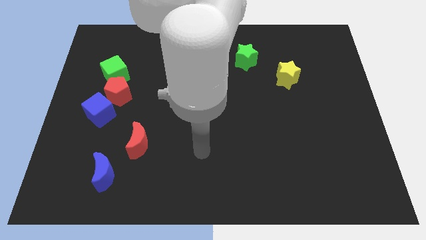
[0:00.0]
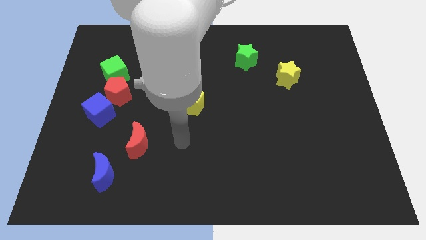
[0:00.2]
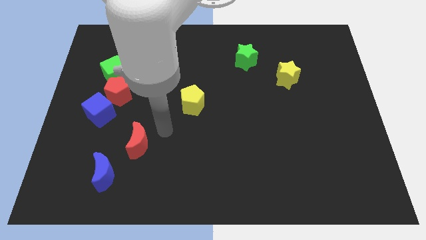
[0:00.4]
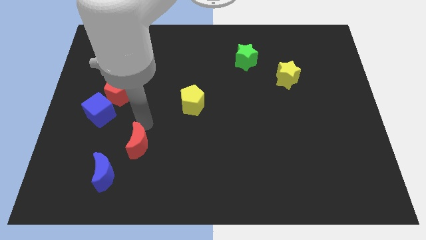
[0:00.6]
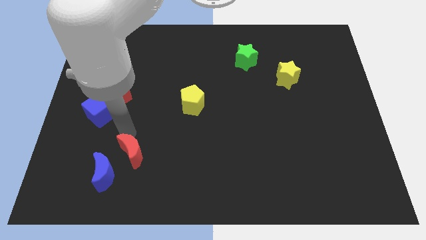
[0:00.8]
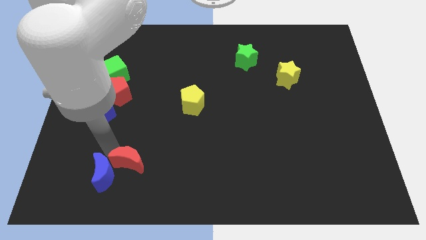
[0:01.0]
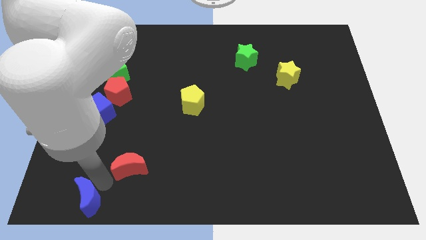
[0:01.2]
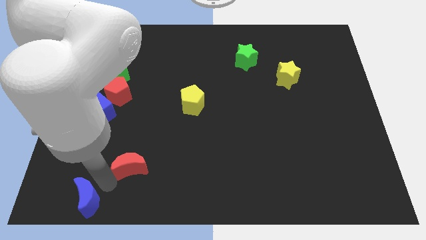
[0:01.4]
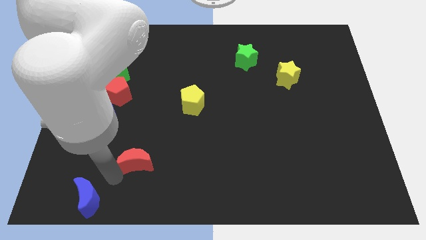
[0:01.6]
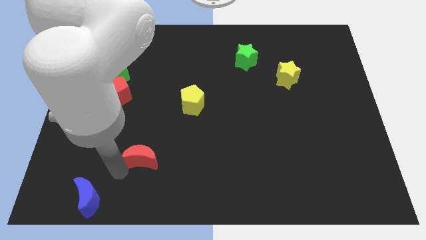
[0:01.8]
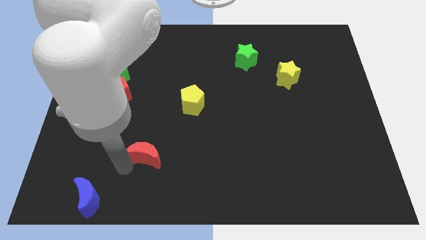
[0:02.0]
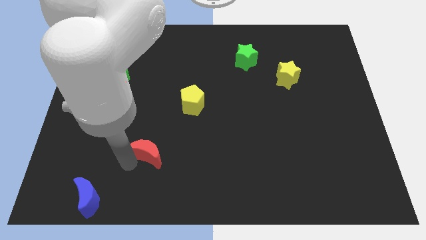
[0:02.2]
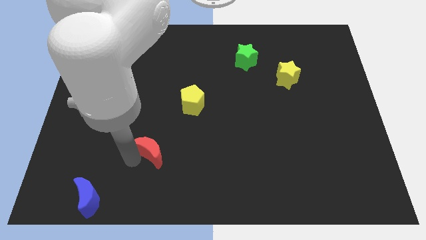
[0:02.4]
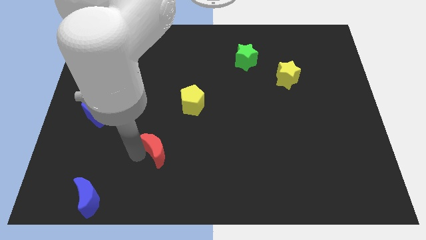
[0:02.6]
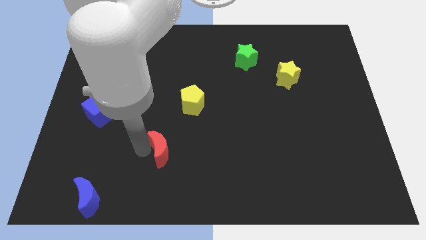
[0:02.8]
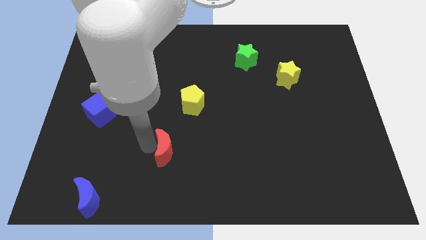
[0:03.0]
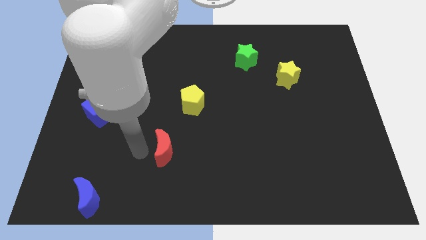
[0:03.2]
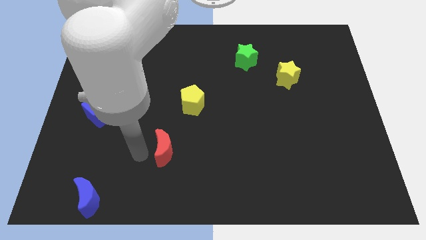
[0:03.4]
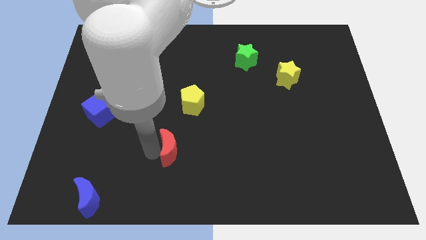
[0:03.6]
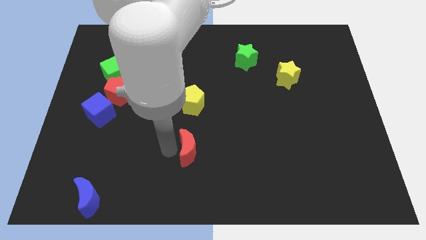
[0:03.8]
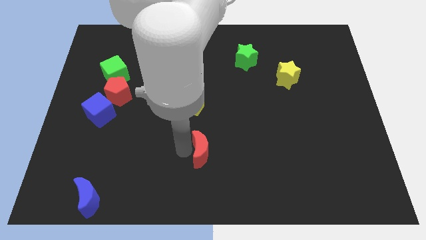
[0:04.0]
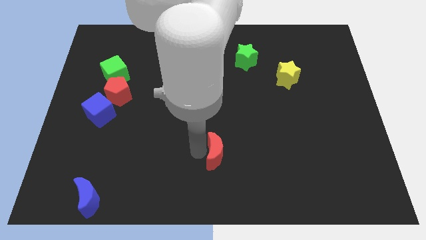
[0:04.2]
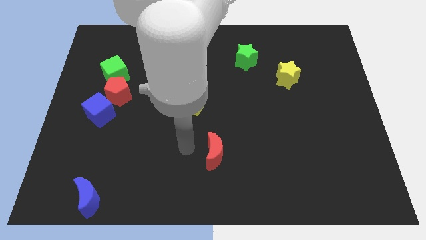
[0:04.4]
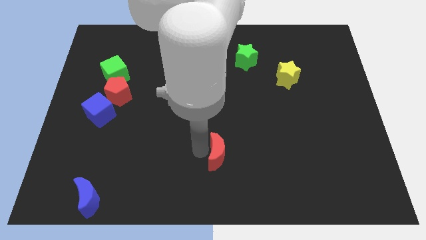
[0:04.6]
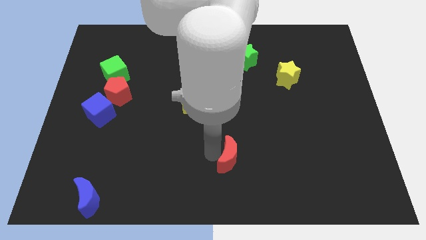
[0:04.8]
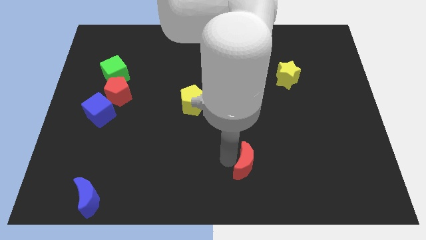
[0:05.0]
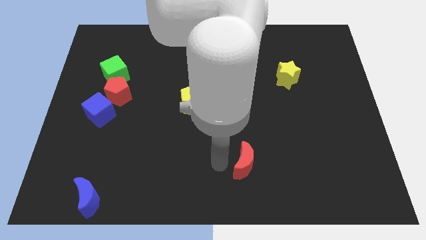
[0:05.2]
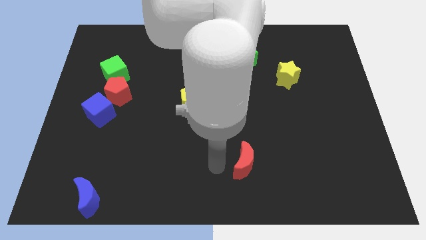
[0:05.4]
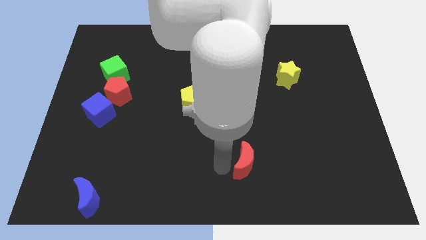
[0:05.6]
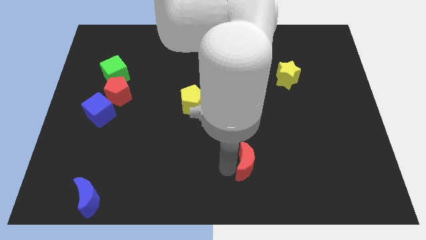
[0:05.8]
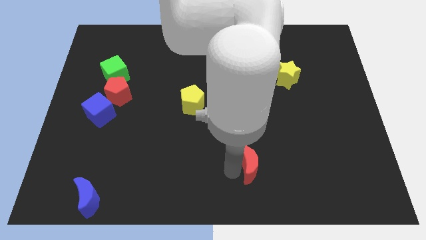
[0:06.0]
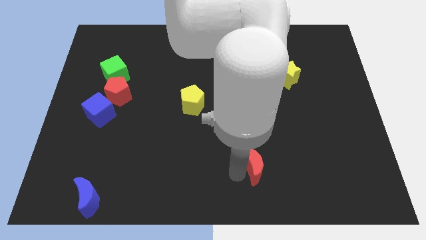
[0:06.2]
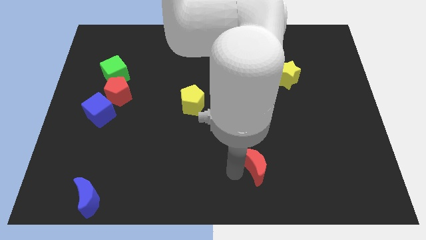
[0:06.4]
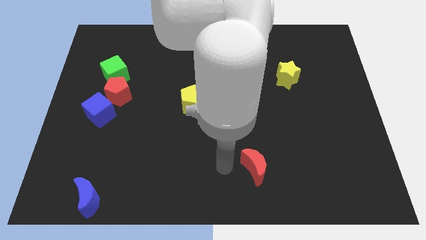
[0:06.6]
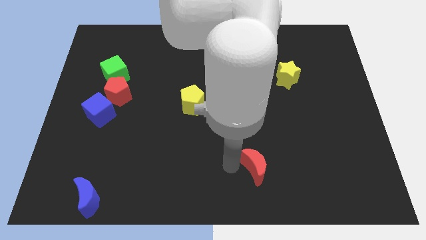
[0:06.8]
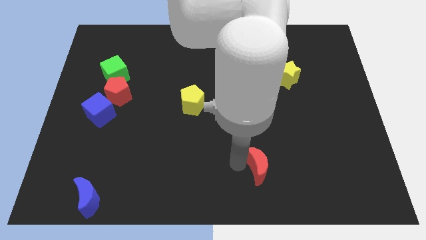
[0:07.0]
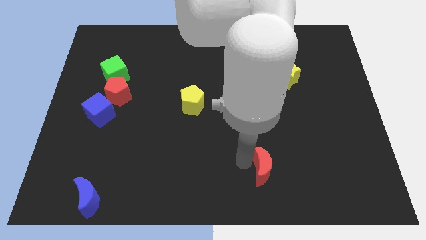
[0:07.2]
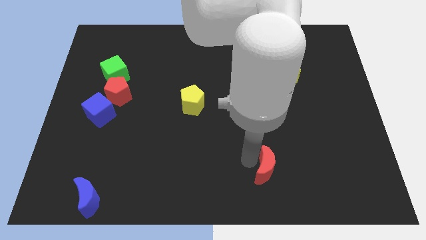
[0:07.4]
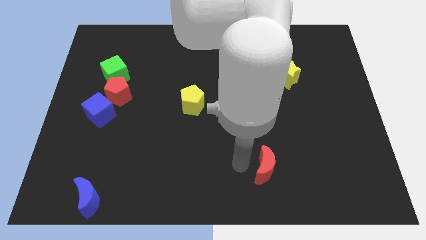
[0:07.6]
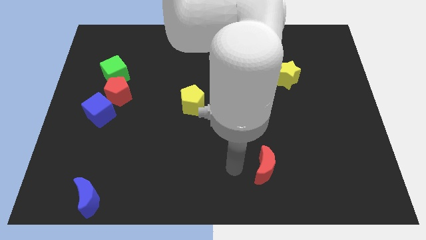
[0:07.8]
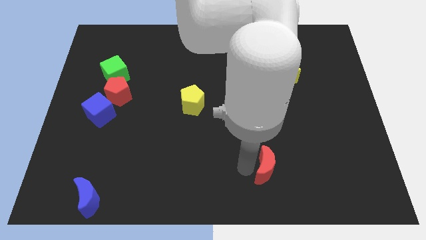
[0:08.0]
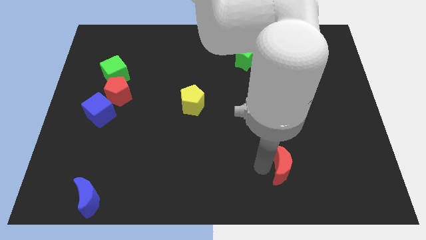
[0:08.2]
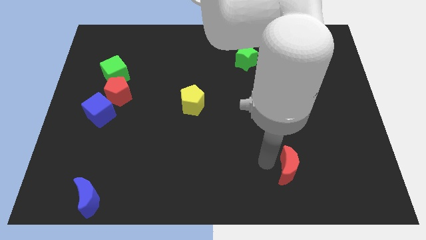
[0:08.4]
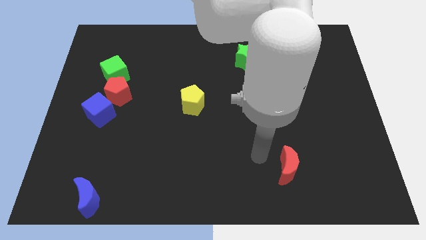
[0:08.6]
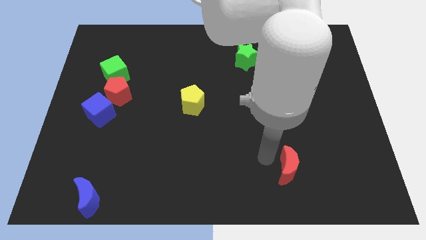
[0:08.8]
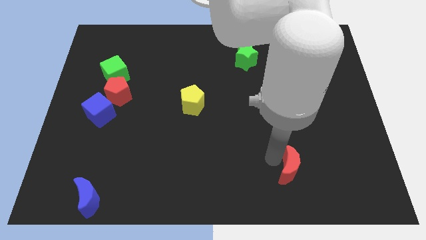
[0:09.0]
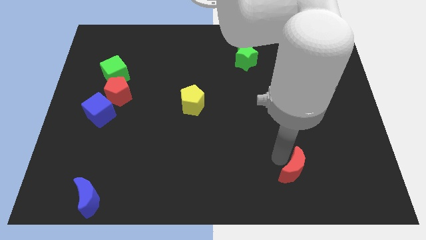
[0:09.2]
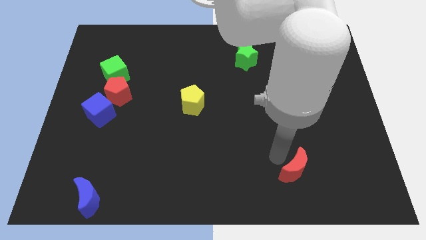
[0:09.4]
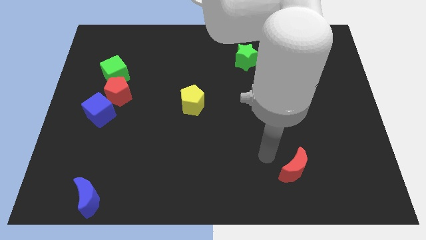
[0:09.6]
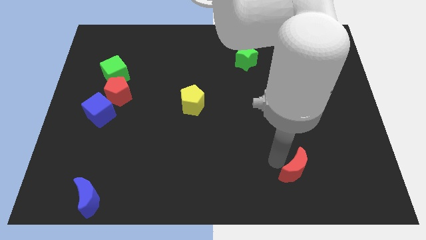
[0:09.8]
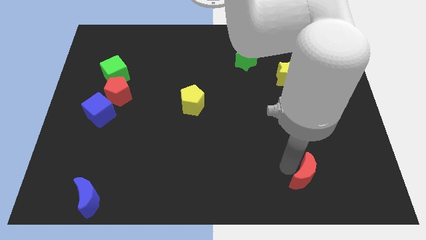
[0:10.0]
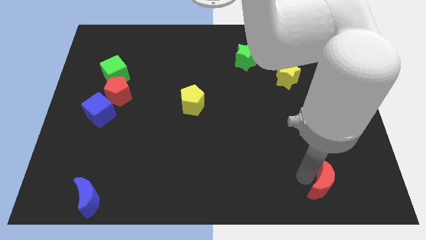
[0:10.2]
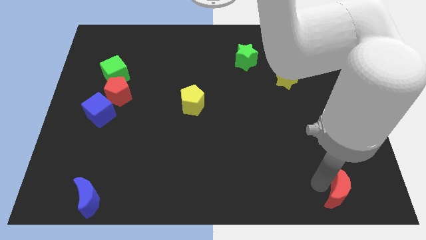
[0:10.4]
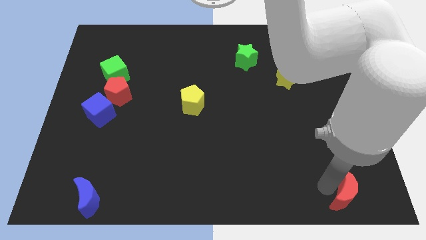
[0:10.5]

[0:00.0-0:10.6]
put the red moon to the bottom right corner

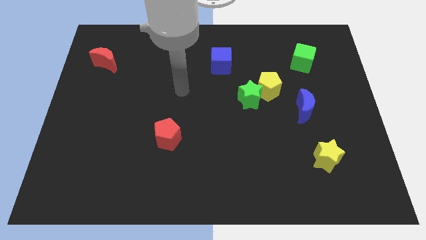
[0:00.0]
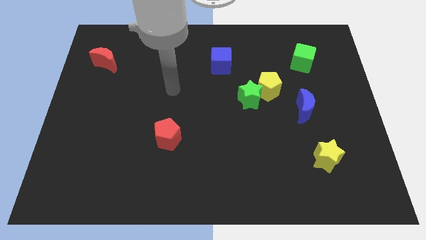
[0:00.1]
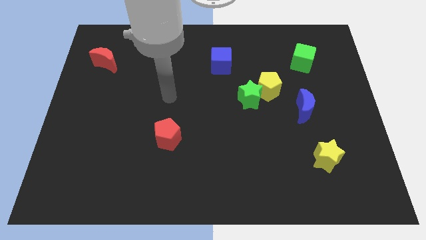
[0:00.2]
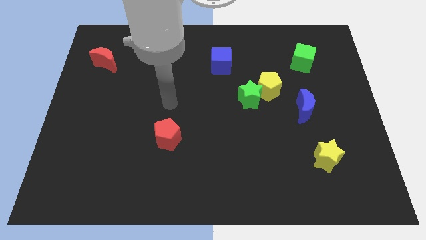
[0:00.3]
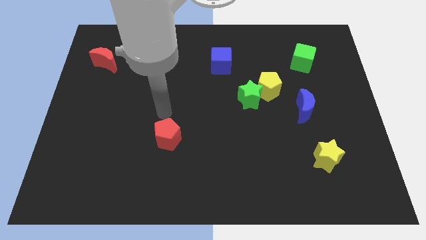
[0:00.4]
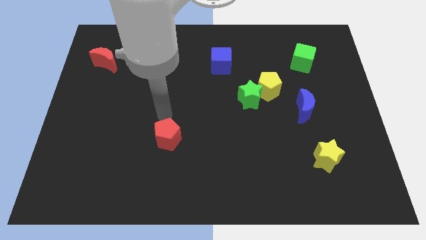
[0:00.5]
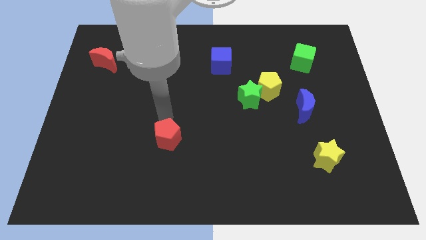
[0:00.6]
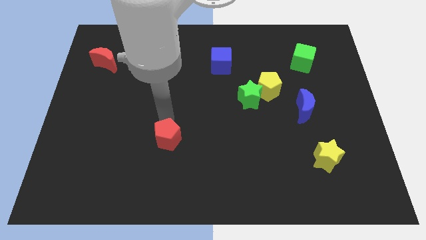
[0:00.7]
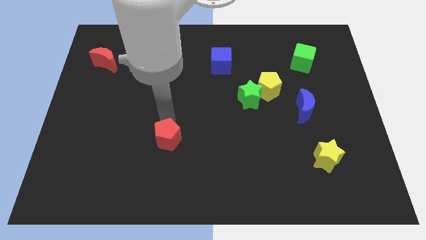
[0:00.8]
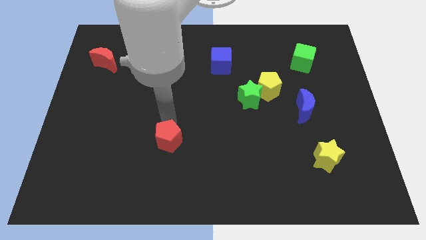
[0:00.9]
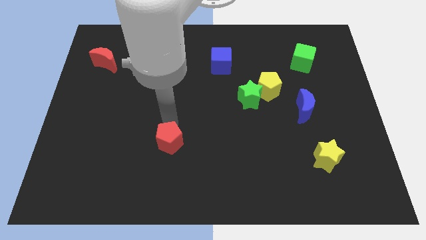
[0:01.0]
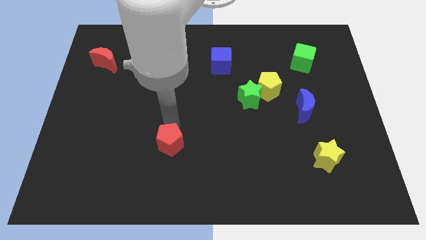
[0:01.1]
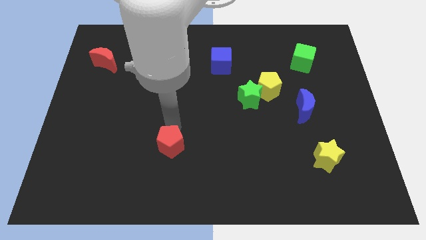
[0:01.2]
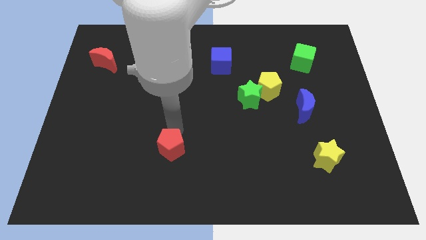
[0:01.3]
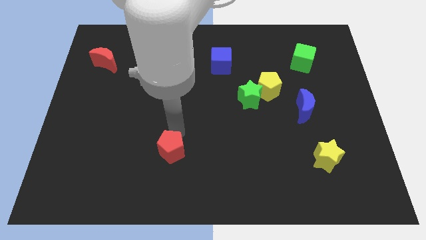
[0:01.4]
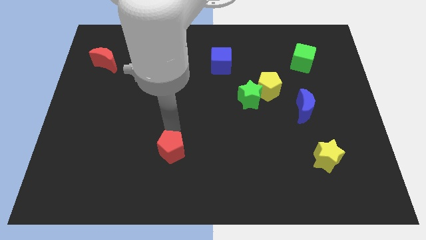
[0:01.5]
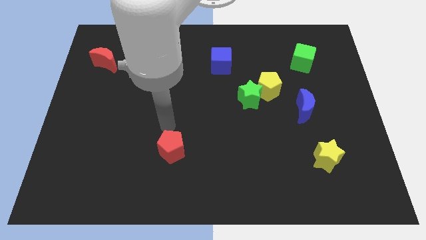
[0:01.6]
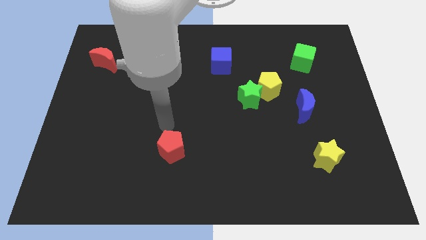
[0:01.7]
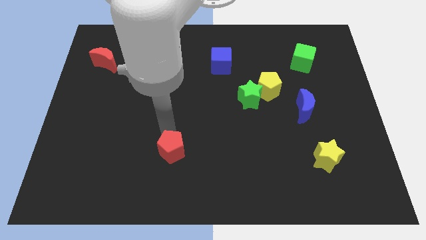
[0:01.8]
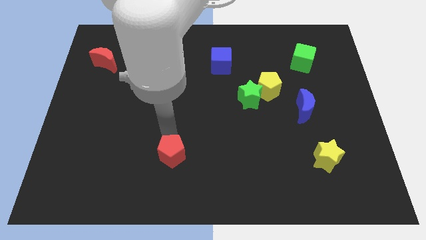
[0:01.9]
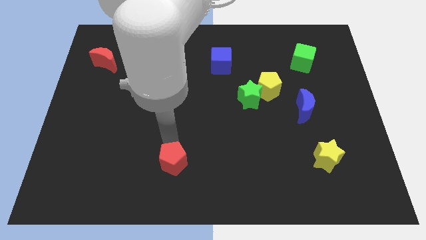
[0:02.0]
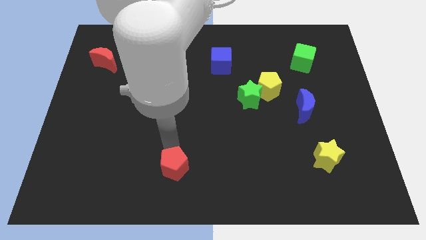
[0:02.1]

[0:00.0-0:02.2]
slide the red pentagon to the bottom side
